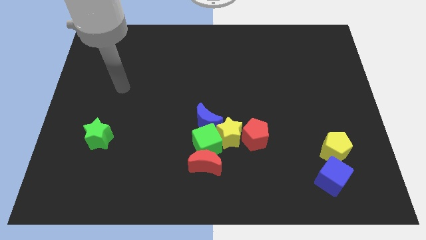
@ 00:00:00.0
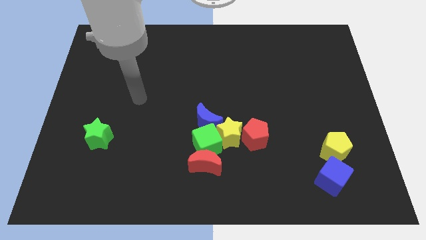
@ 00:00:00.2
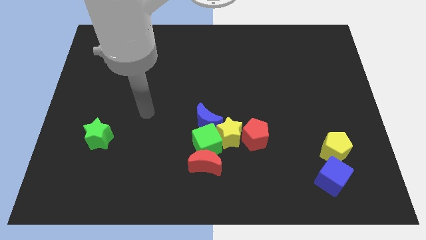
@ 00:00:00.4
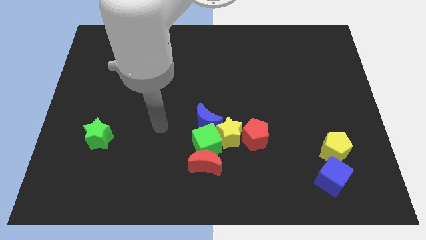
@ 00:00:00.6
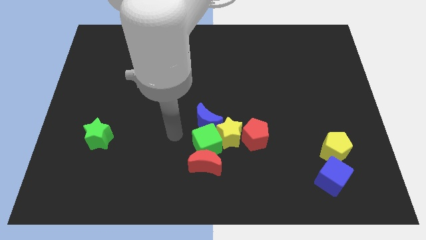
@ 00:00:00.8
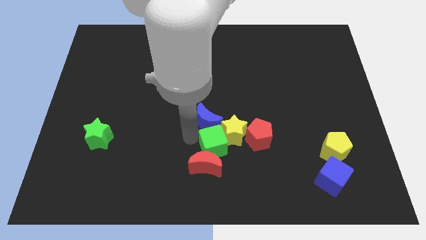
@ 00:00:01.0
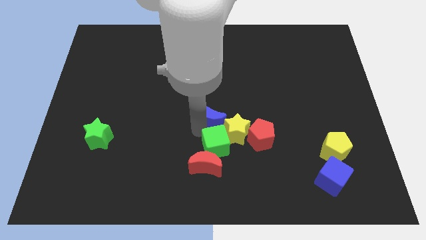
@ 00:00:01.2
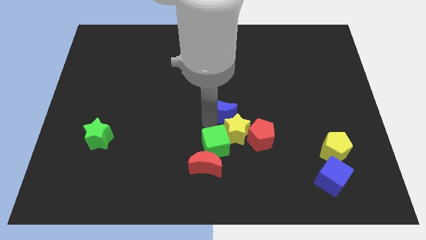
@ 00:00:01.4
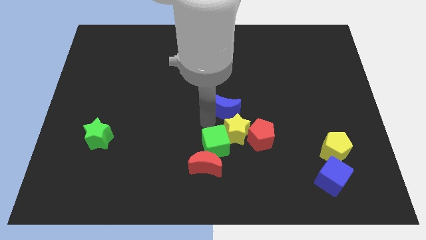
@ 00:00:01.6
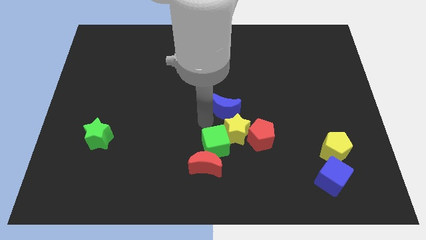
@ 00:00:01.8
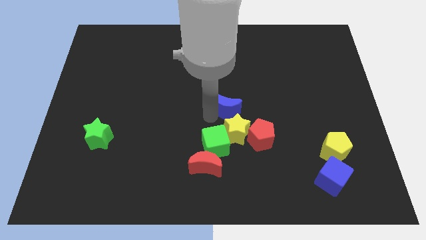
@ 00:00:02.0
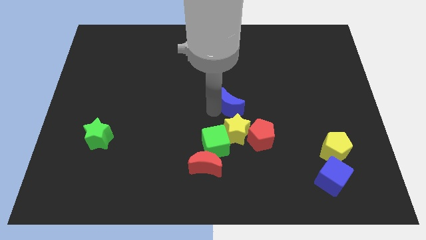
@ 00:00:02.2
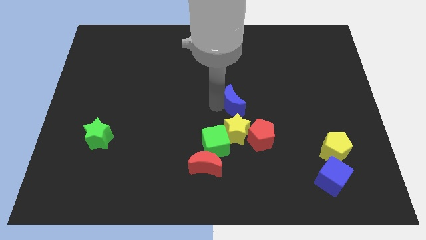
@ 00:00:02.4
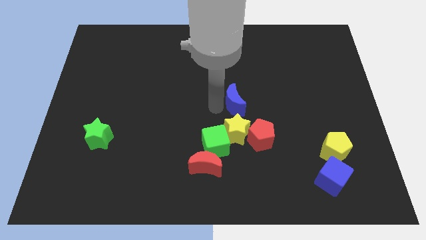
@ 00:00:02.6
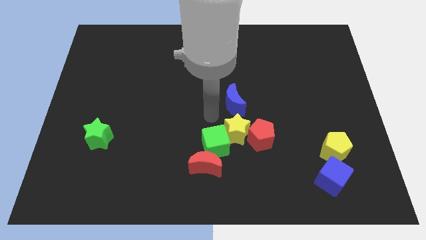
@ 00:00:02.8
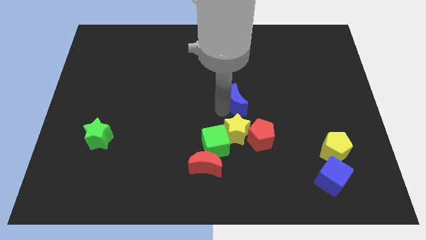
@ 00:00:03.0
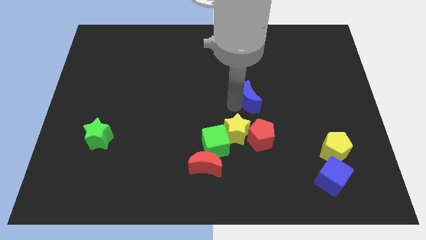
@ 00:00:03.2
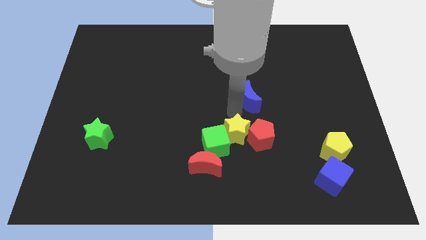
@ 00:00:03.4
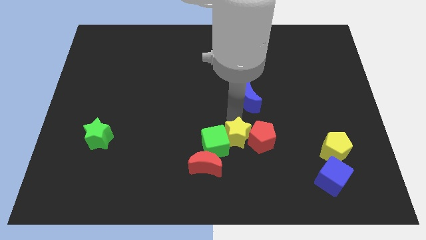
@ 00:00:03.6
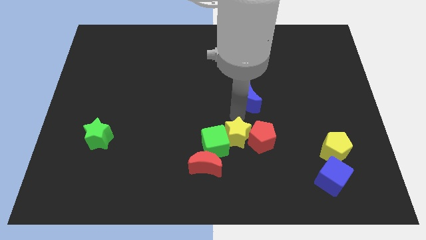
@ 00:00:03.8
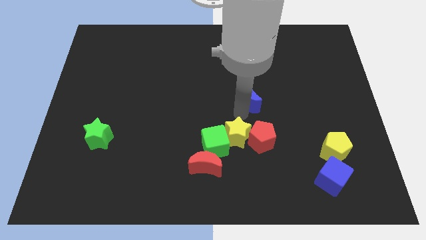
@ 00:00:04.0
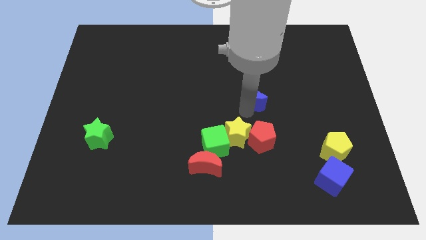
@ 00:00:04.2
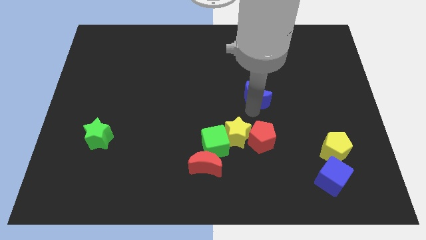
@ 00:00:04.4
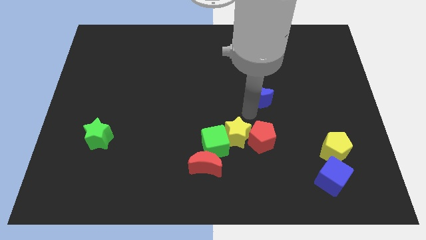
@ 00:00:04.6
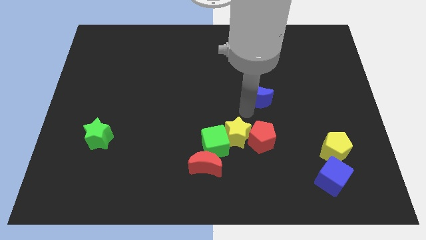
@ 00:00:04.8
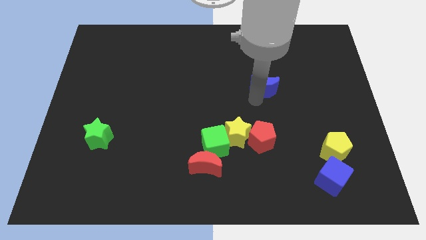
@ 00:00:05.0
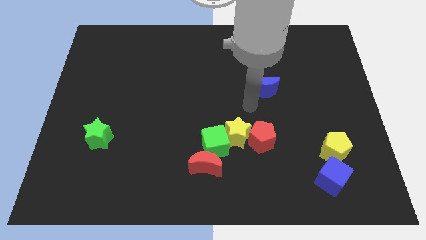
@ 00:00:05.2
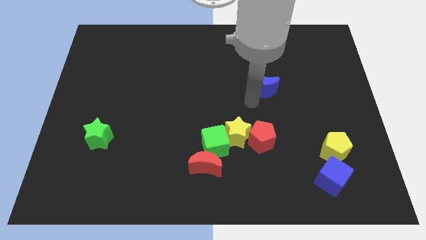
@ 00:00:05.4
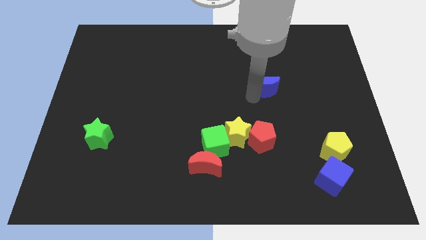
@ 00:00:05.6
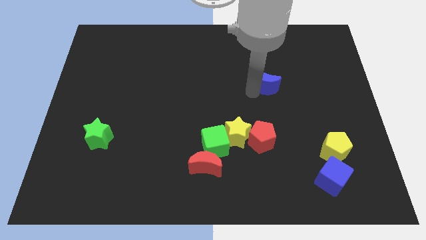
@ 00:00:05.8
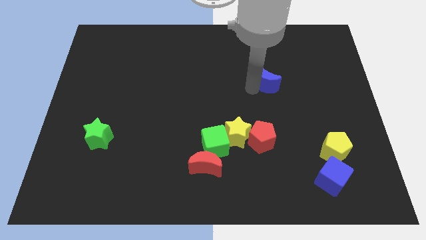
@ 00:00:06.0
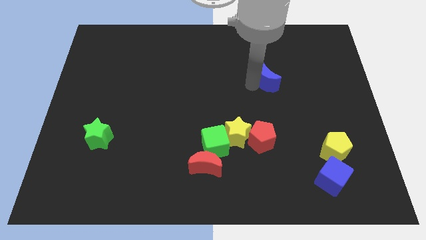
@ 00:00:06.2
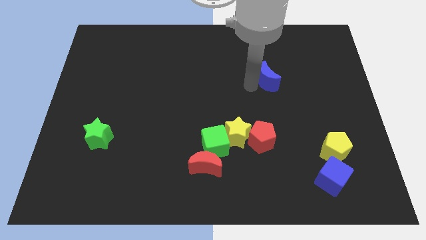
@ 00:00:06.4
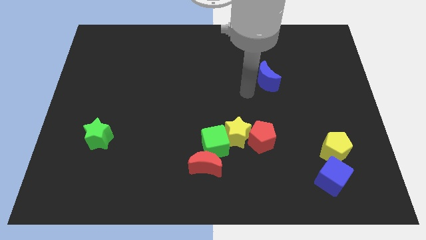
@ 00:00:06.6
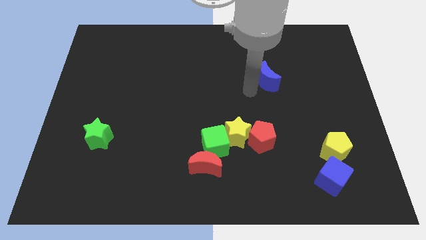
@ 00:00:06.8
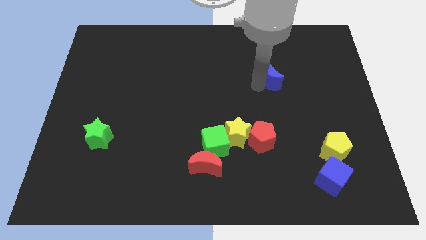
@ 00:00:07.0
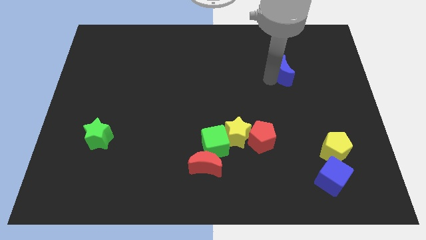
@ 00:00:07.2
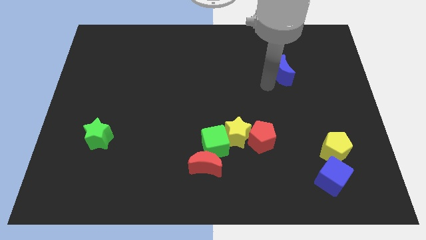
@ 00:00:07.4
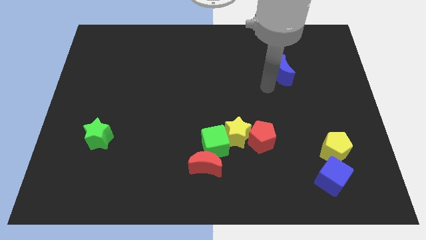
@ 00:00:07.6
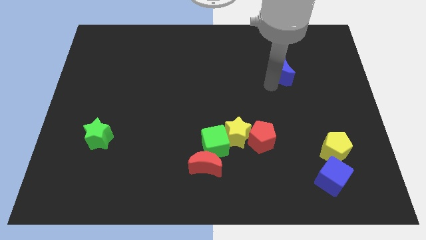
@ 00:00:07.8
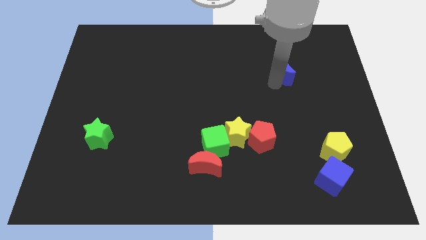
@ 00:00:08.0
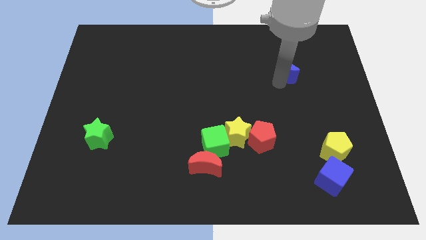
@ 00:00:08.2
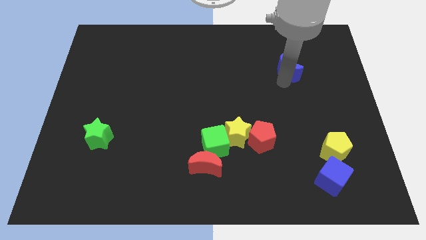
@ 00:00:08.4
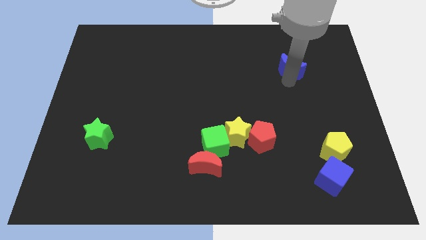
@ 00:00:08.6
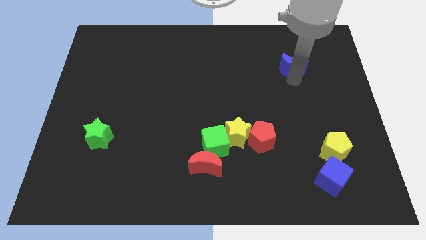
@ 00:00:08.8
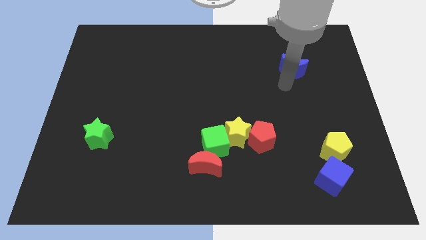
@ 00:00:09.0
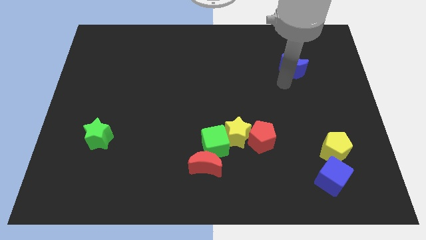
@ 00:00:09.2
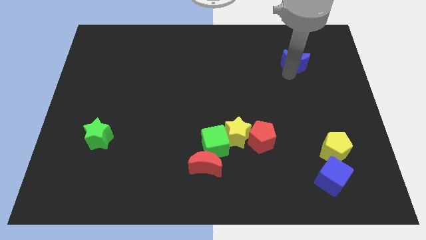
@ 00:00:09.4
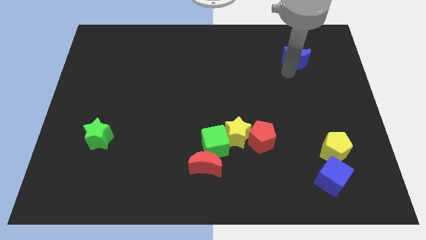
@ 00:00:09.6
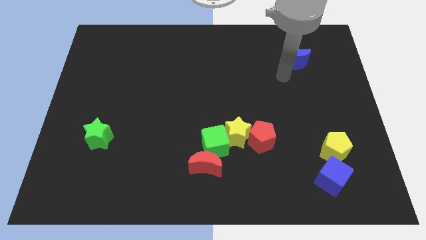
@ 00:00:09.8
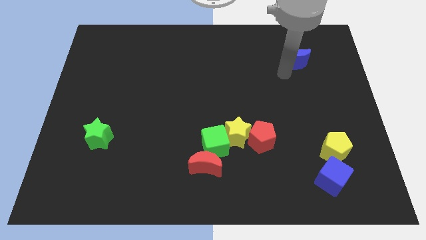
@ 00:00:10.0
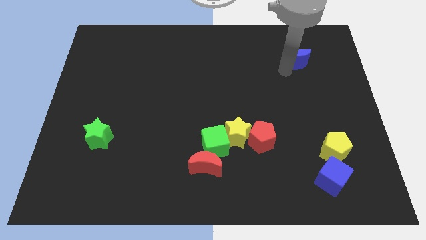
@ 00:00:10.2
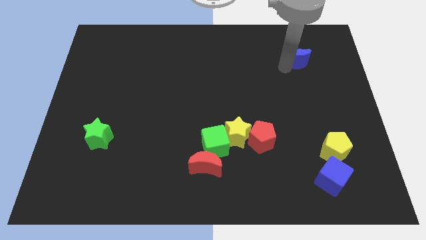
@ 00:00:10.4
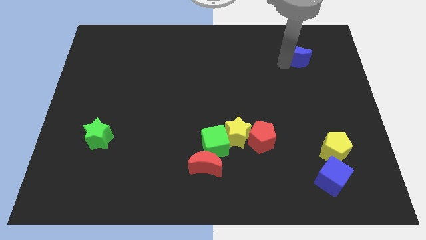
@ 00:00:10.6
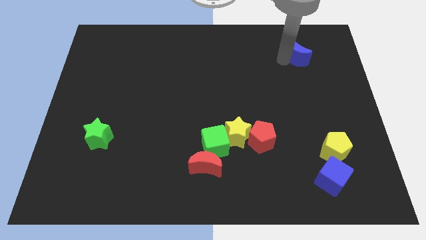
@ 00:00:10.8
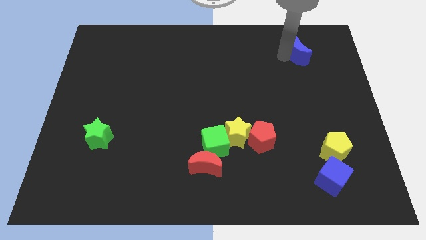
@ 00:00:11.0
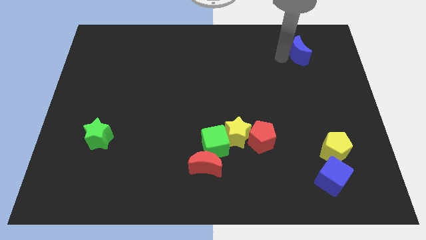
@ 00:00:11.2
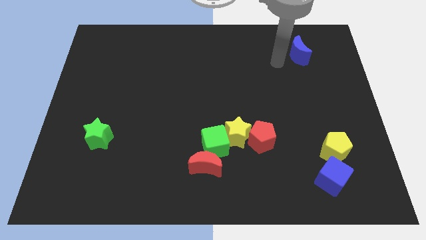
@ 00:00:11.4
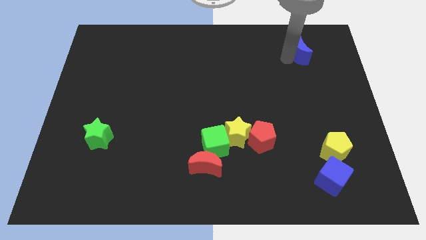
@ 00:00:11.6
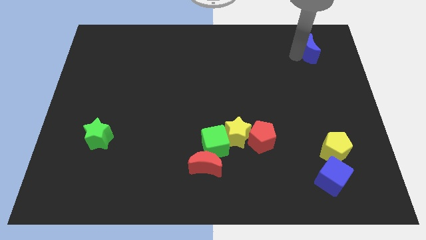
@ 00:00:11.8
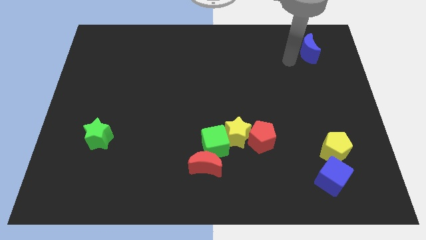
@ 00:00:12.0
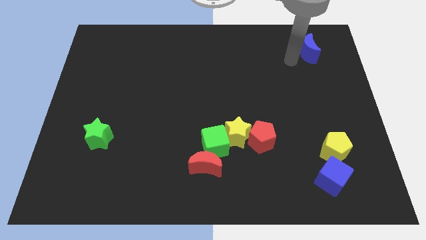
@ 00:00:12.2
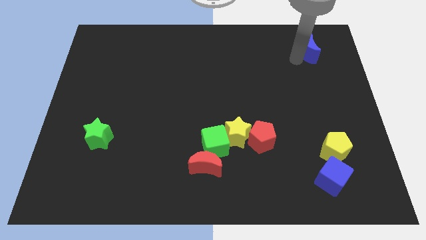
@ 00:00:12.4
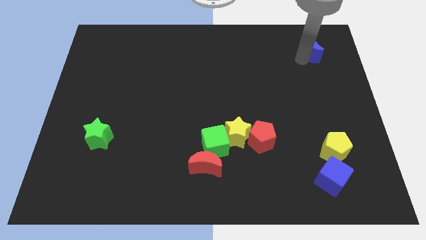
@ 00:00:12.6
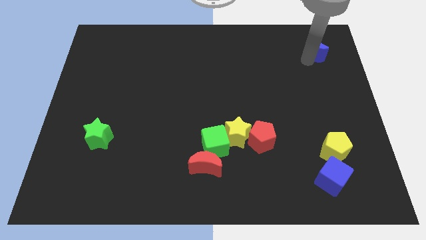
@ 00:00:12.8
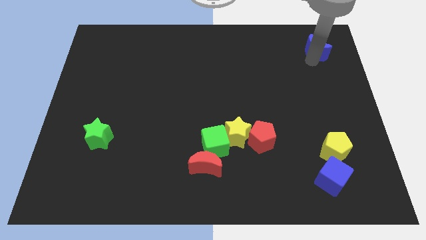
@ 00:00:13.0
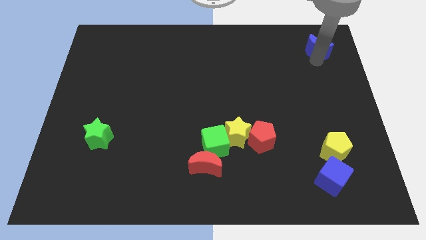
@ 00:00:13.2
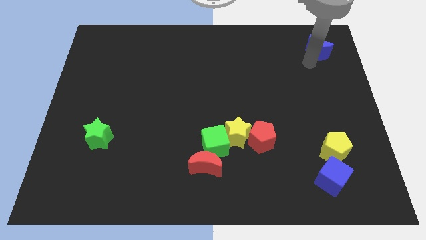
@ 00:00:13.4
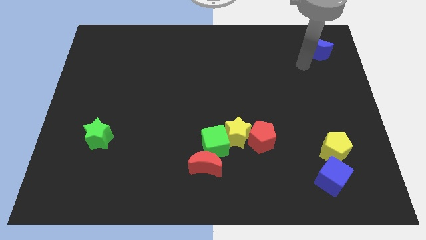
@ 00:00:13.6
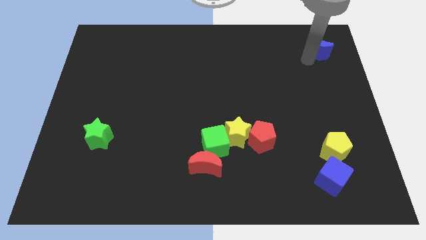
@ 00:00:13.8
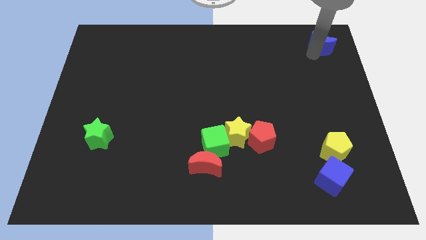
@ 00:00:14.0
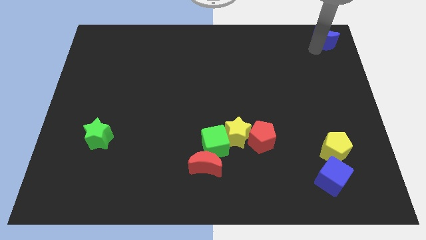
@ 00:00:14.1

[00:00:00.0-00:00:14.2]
slide the blue moon to the top right

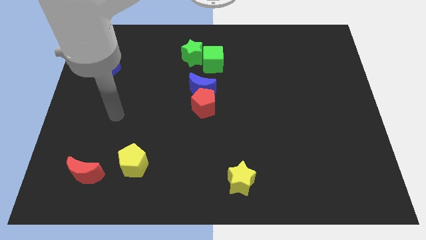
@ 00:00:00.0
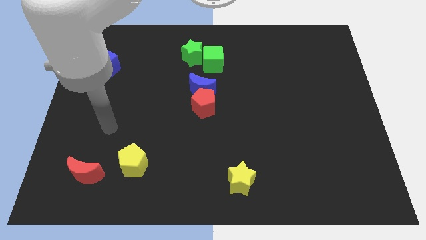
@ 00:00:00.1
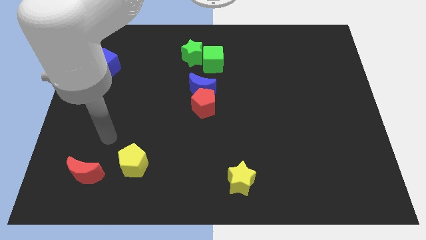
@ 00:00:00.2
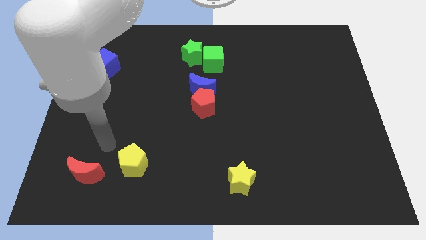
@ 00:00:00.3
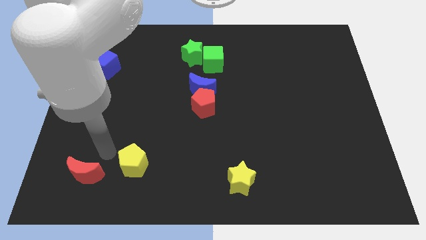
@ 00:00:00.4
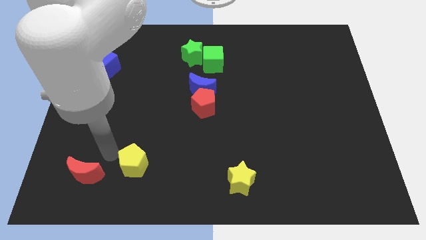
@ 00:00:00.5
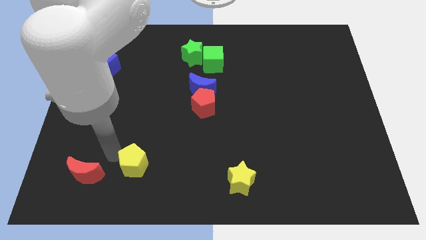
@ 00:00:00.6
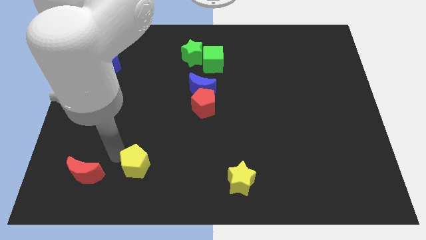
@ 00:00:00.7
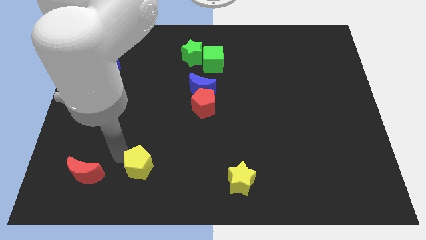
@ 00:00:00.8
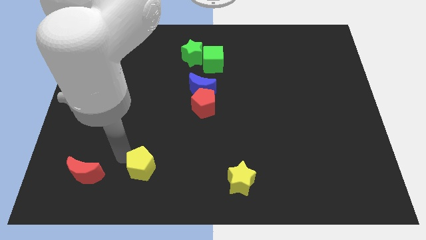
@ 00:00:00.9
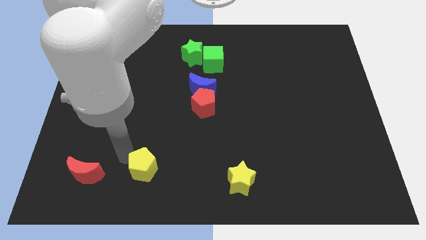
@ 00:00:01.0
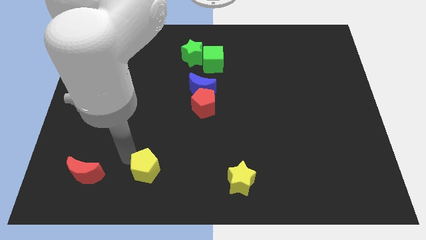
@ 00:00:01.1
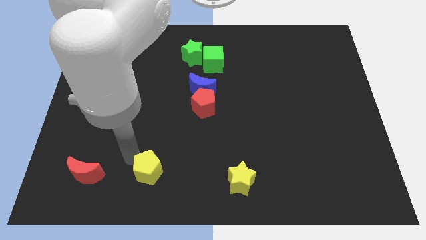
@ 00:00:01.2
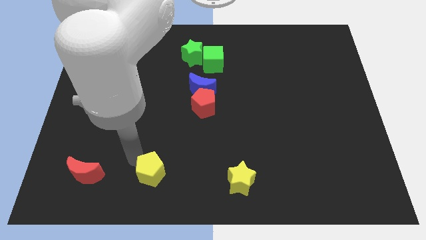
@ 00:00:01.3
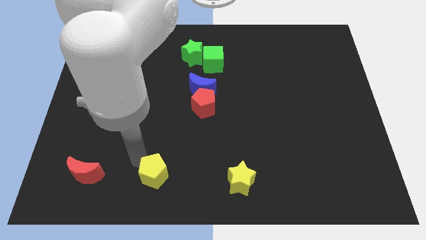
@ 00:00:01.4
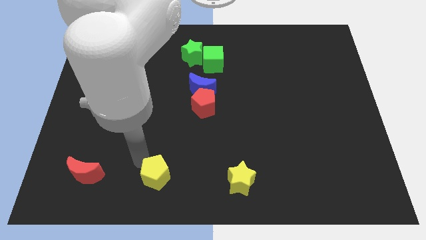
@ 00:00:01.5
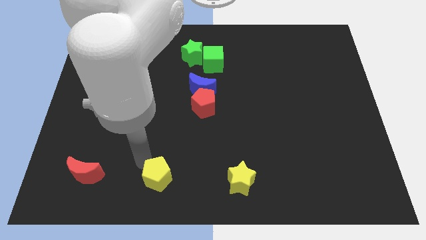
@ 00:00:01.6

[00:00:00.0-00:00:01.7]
move the yellow pentagon to the bottom
